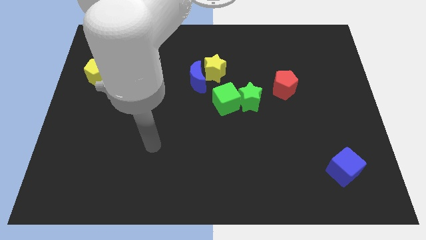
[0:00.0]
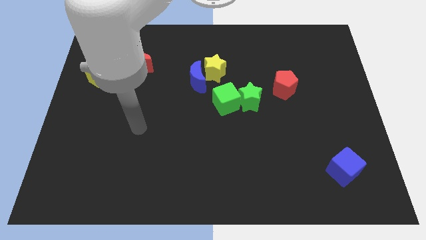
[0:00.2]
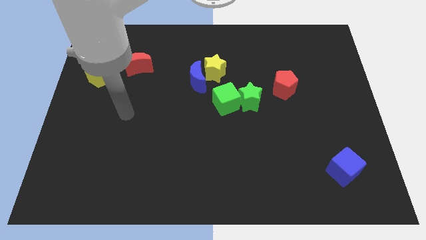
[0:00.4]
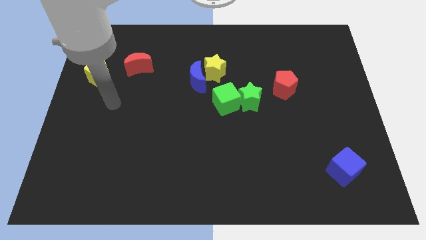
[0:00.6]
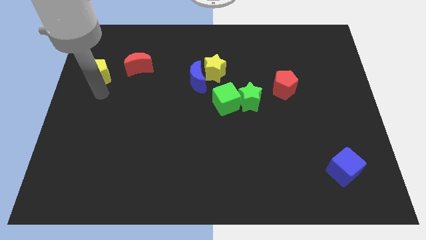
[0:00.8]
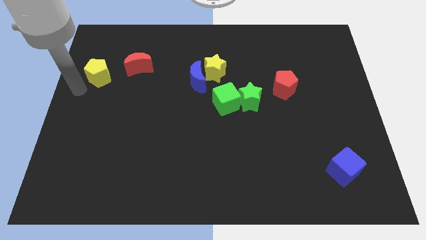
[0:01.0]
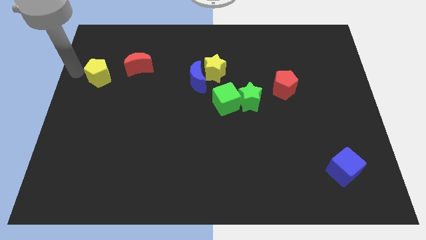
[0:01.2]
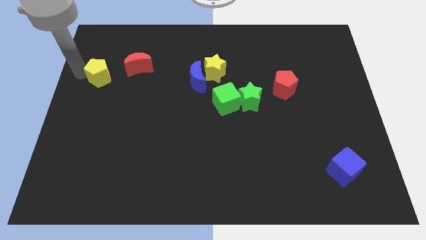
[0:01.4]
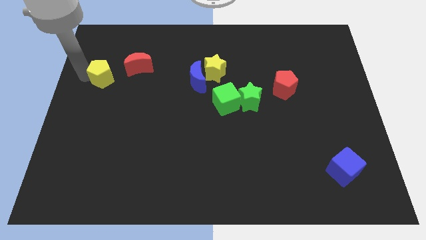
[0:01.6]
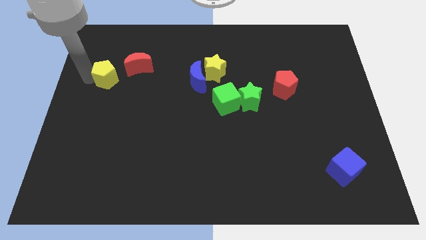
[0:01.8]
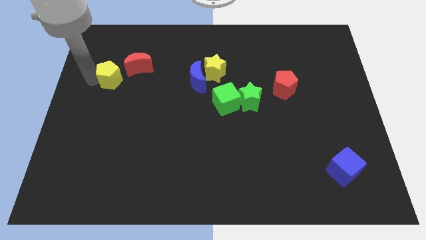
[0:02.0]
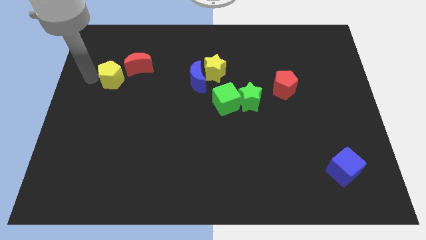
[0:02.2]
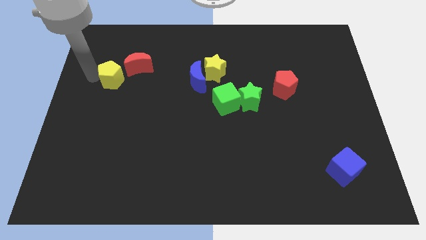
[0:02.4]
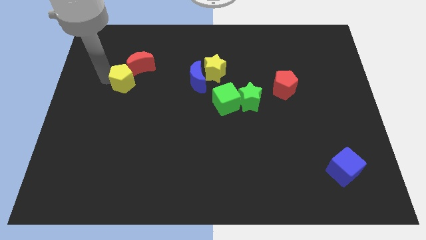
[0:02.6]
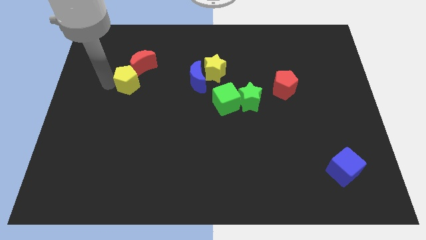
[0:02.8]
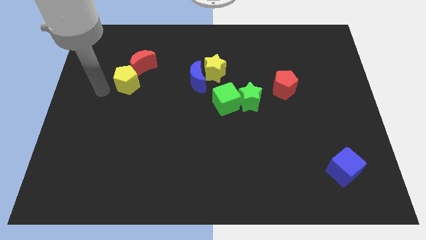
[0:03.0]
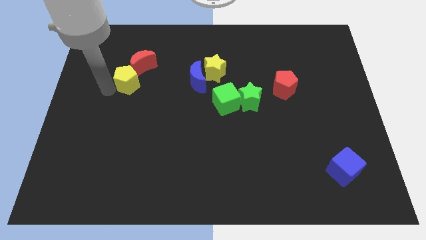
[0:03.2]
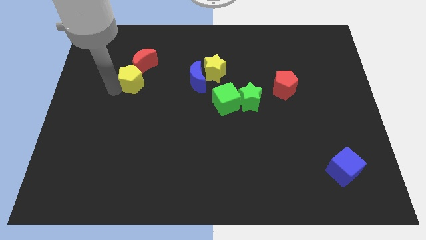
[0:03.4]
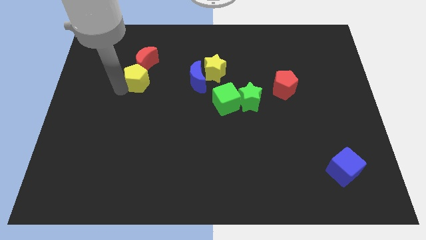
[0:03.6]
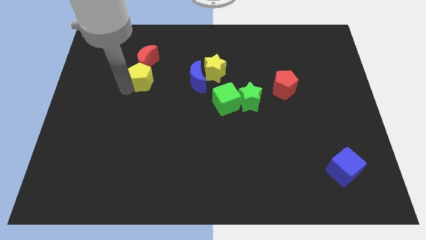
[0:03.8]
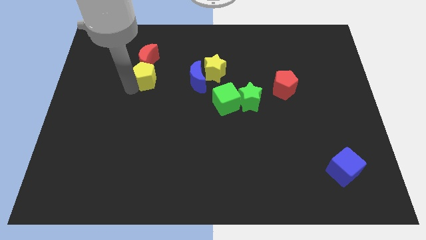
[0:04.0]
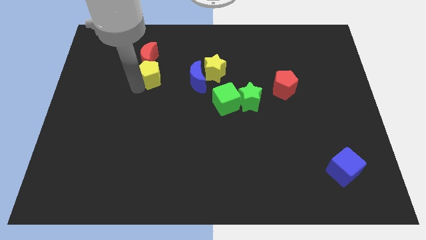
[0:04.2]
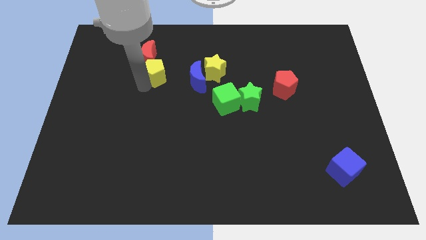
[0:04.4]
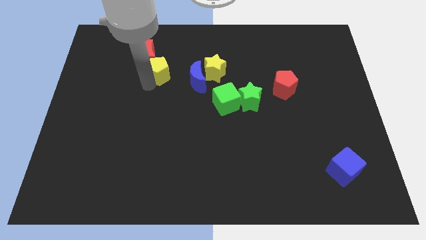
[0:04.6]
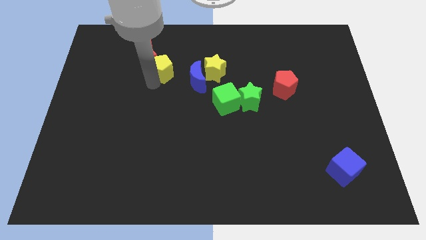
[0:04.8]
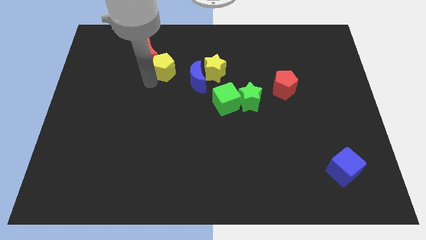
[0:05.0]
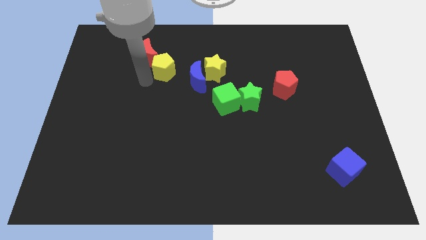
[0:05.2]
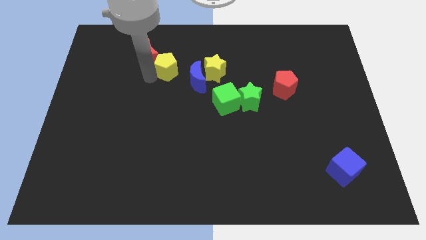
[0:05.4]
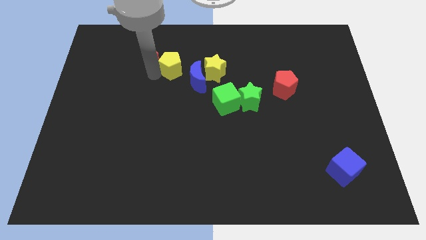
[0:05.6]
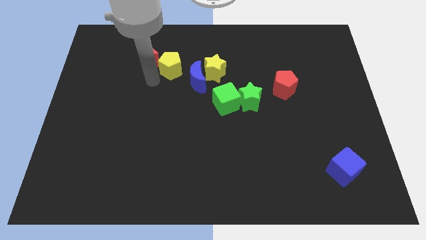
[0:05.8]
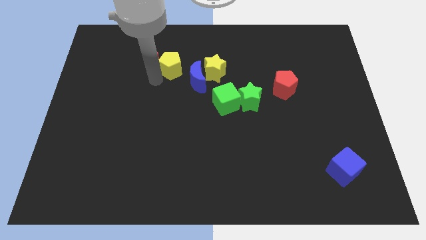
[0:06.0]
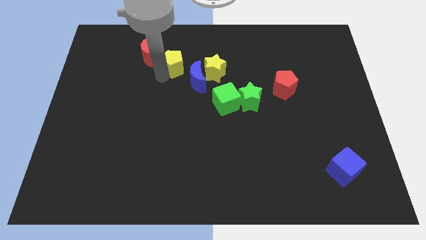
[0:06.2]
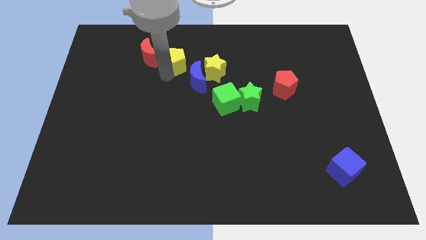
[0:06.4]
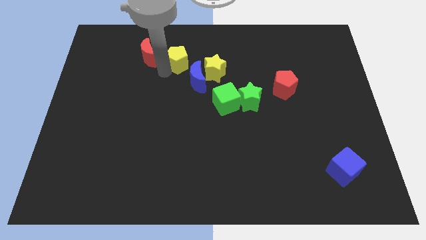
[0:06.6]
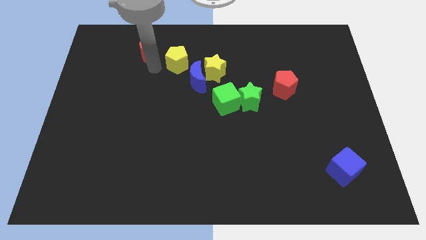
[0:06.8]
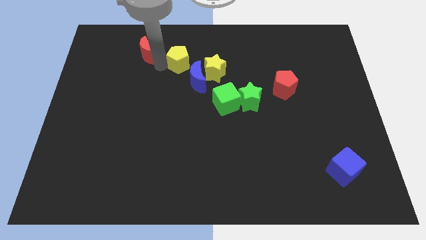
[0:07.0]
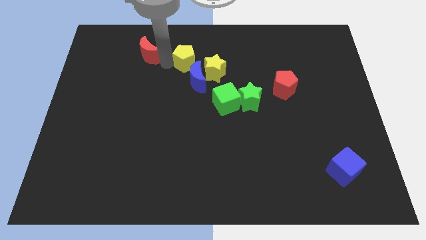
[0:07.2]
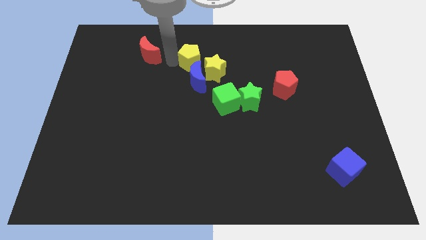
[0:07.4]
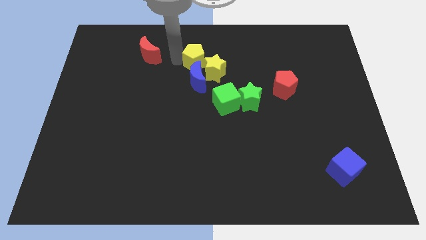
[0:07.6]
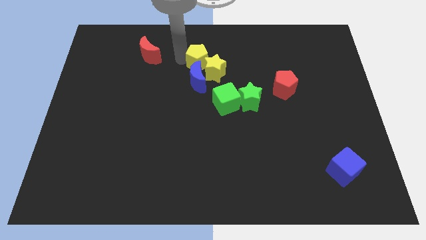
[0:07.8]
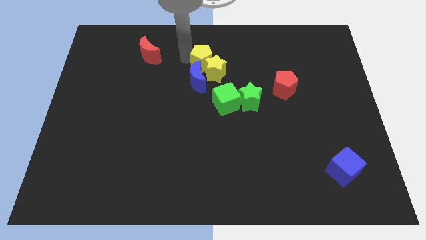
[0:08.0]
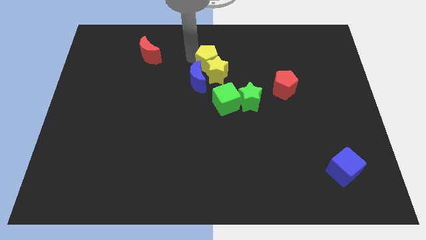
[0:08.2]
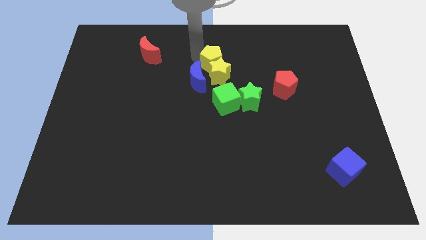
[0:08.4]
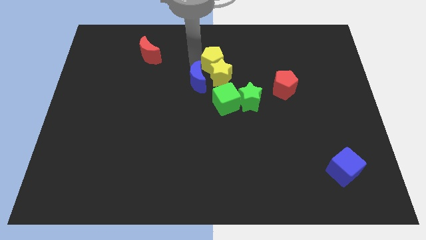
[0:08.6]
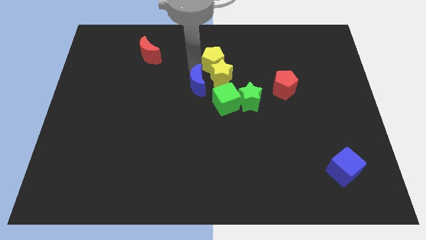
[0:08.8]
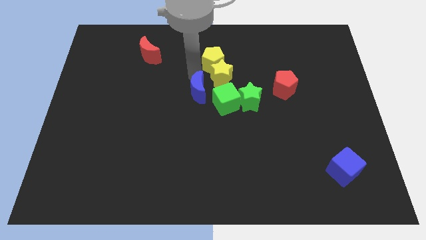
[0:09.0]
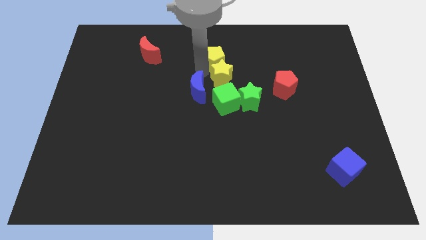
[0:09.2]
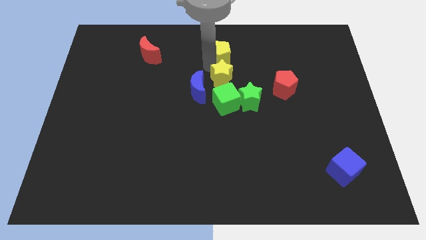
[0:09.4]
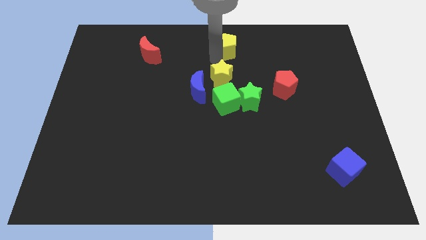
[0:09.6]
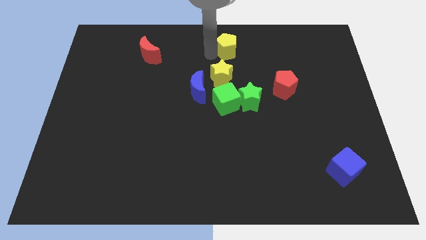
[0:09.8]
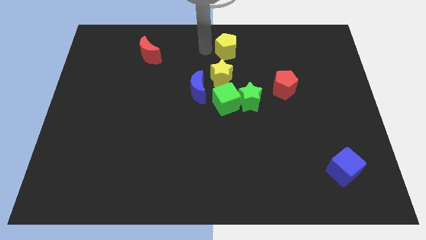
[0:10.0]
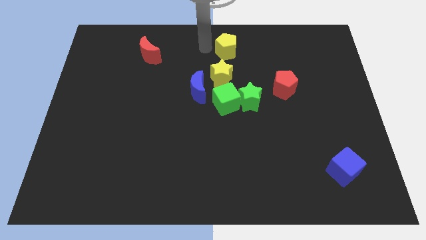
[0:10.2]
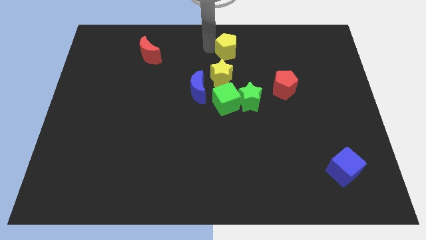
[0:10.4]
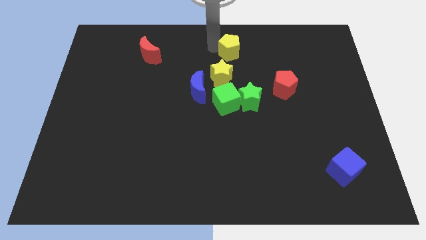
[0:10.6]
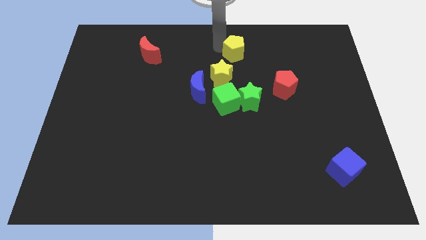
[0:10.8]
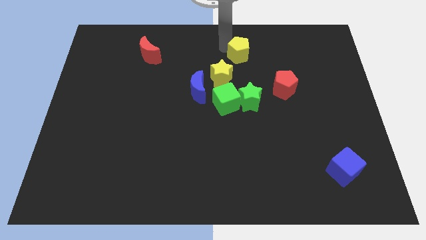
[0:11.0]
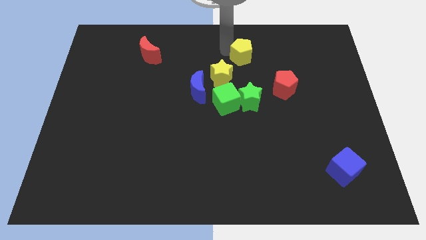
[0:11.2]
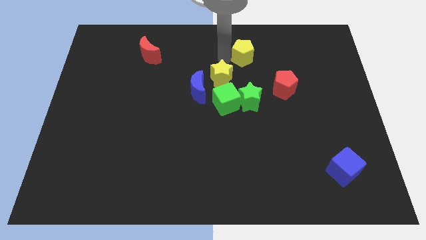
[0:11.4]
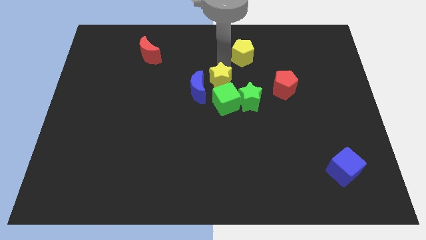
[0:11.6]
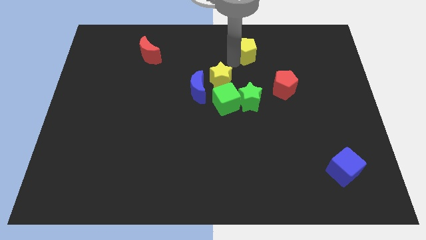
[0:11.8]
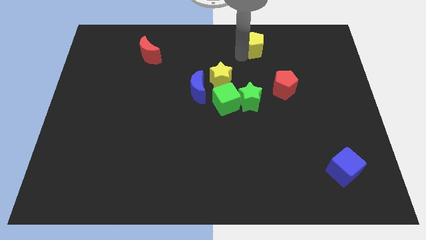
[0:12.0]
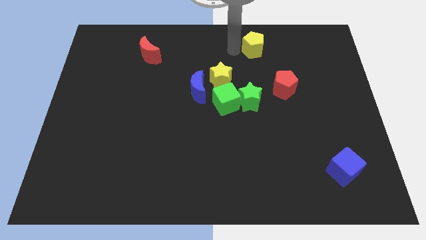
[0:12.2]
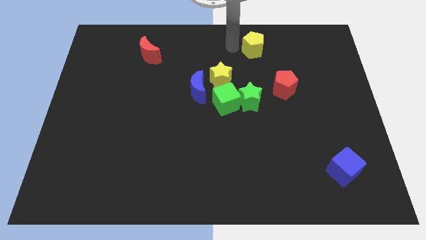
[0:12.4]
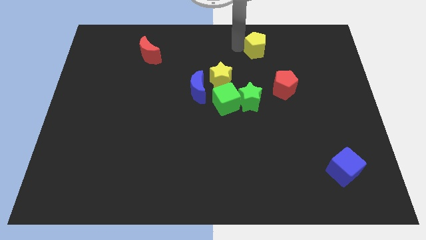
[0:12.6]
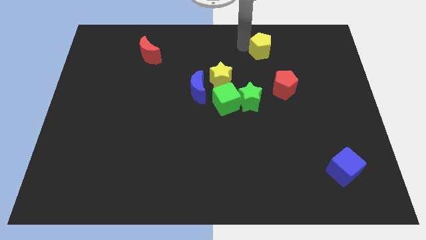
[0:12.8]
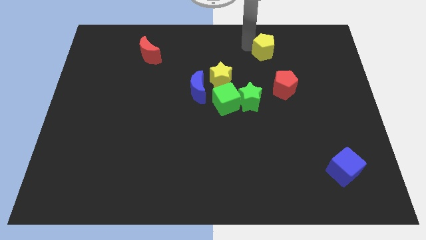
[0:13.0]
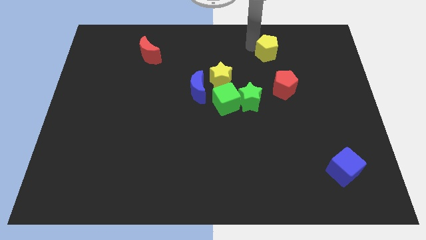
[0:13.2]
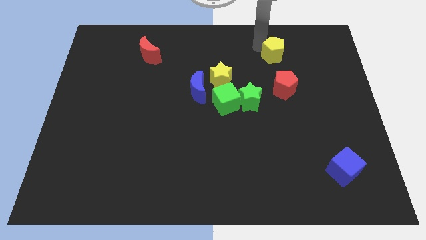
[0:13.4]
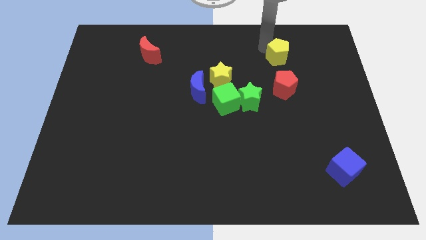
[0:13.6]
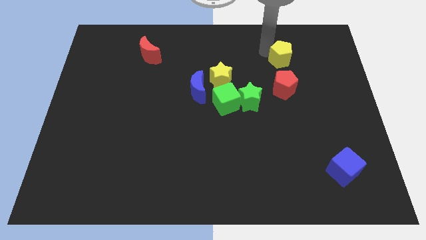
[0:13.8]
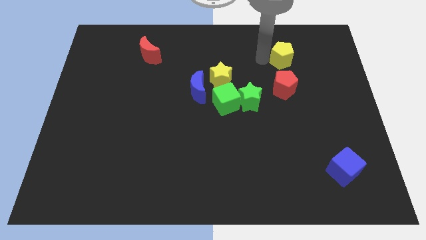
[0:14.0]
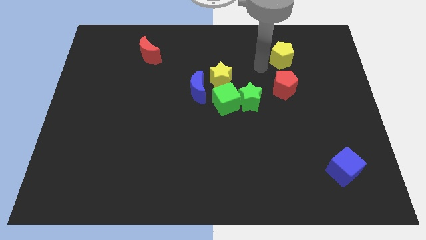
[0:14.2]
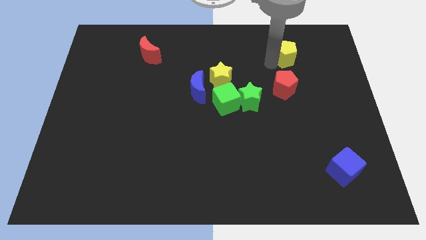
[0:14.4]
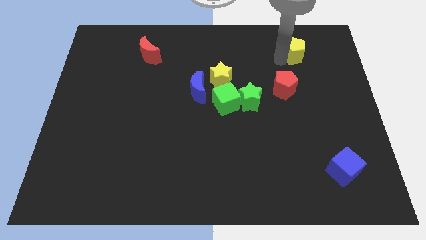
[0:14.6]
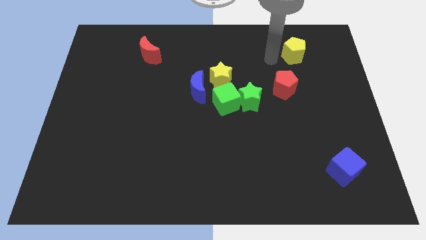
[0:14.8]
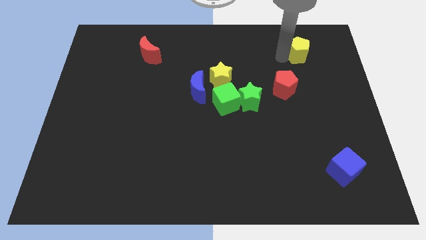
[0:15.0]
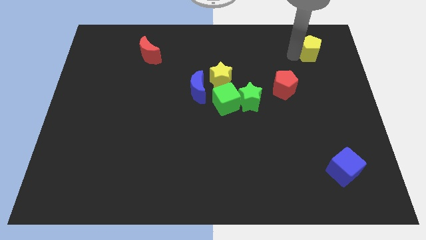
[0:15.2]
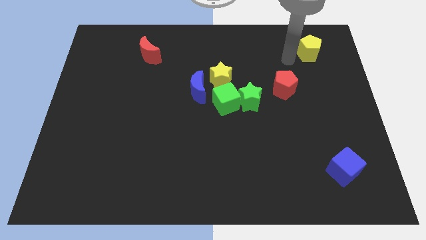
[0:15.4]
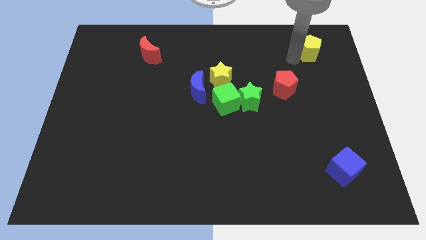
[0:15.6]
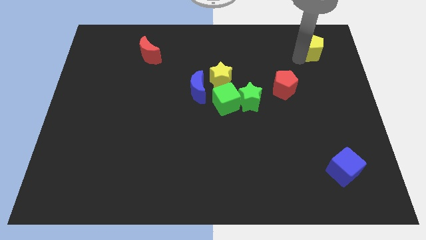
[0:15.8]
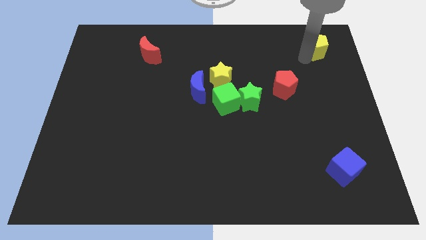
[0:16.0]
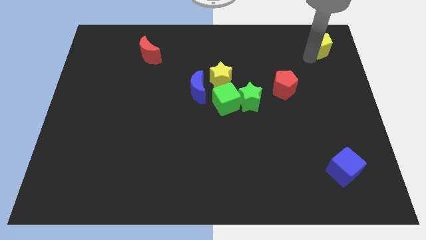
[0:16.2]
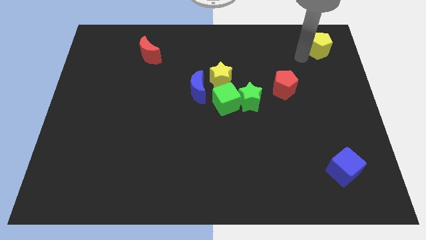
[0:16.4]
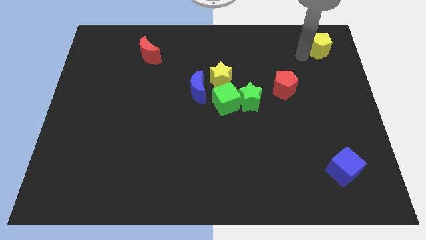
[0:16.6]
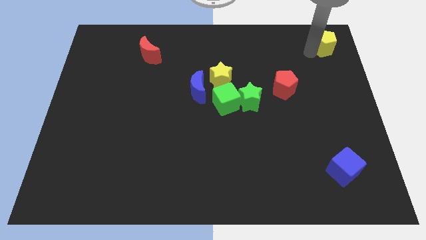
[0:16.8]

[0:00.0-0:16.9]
put the yellow pentagon to the top right corner
